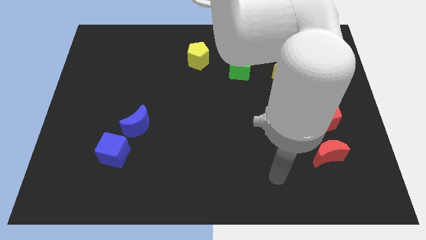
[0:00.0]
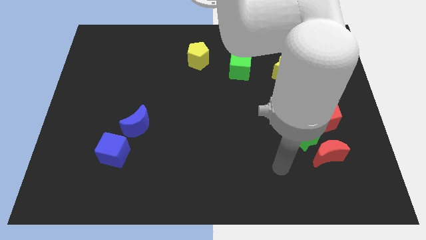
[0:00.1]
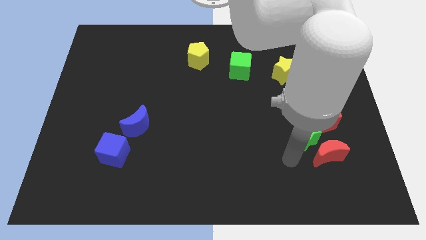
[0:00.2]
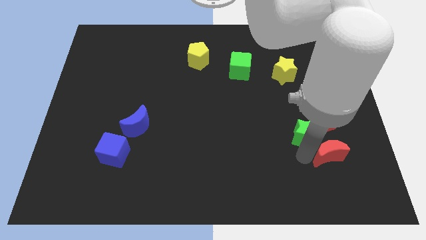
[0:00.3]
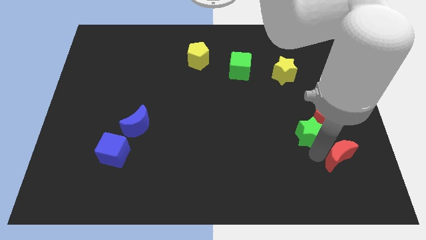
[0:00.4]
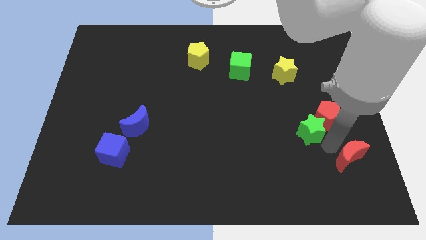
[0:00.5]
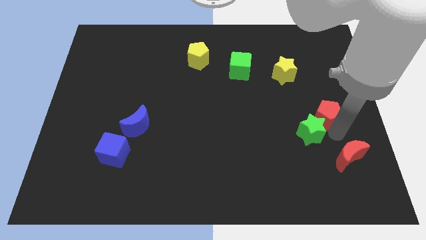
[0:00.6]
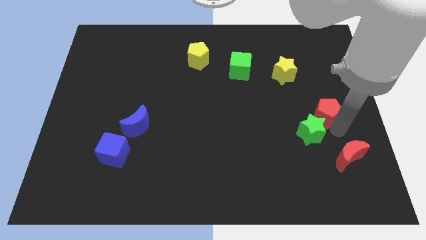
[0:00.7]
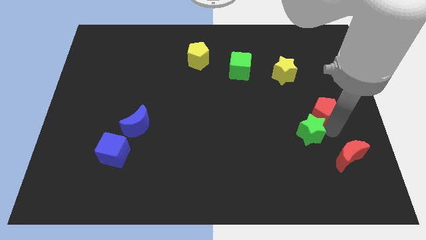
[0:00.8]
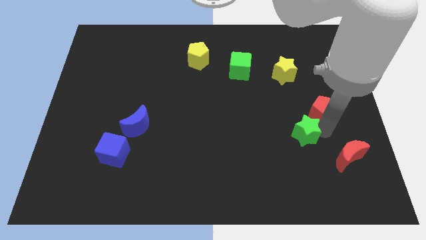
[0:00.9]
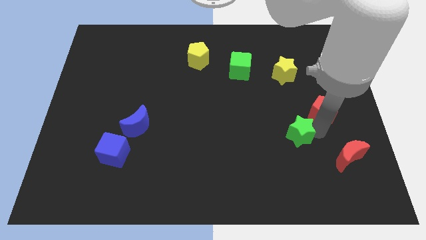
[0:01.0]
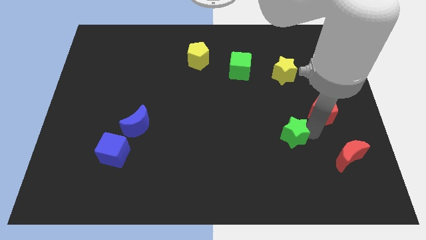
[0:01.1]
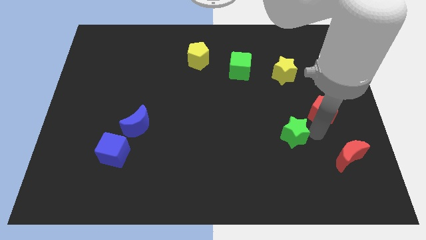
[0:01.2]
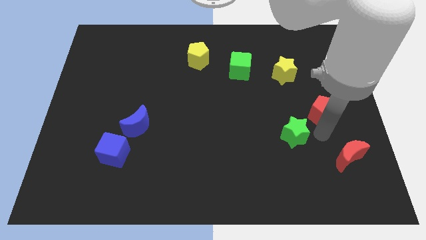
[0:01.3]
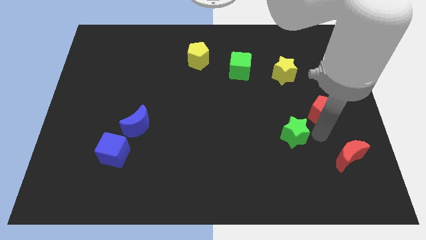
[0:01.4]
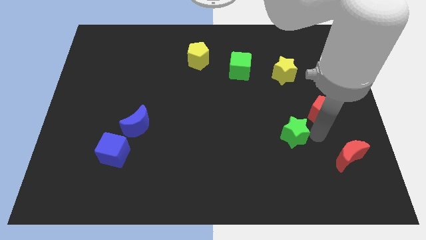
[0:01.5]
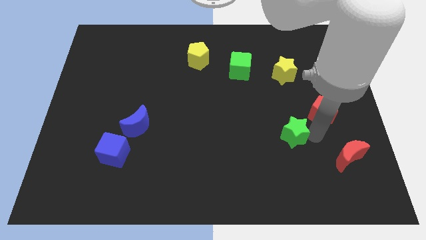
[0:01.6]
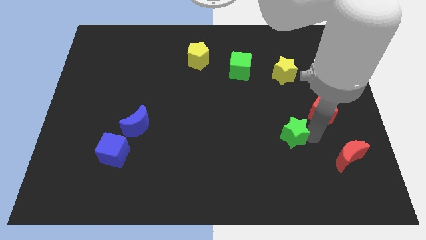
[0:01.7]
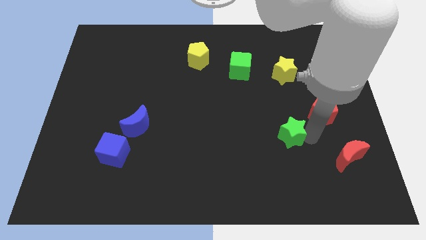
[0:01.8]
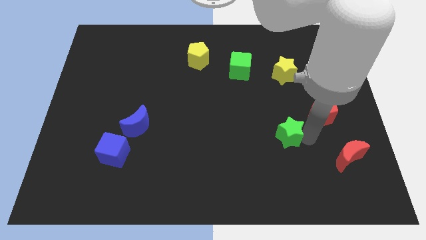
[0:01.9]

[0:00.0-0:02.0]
move the green star away from the red moon and red pentagon

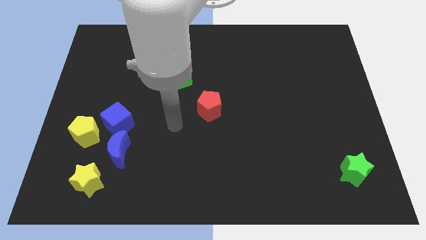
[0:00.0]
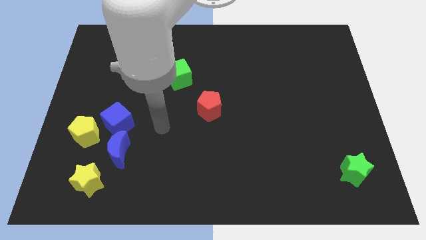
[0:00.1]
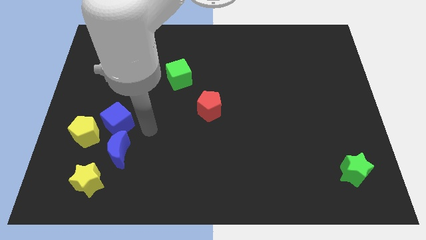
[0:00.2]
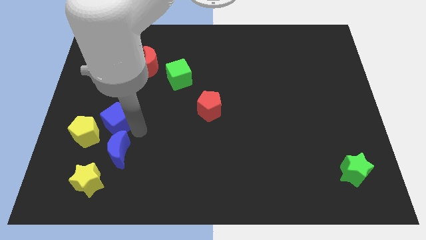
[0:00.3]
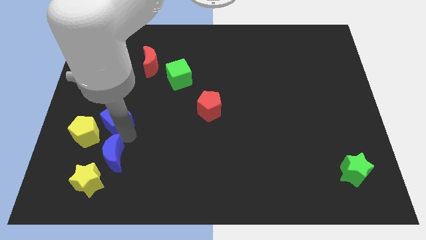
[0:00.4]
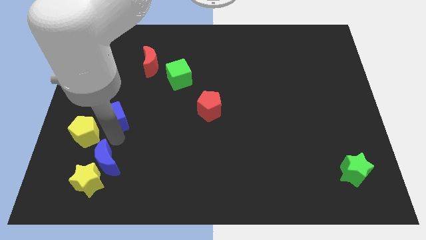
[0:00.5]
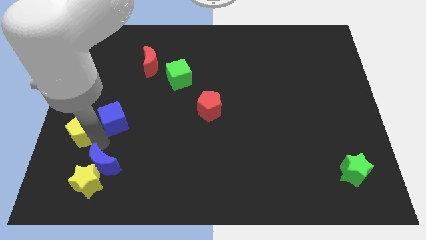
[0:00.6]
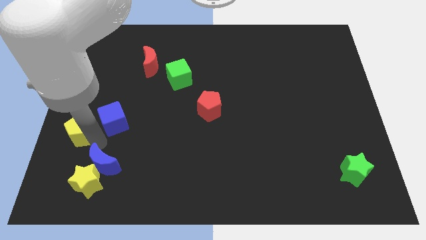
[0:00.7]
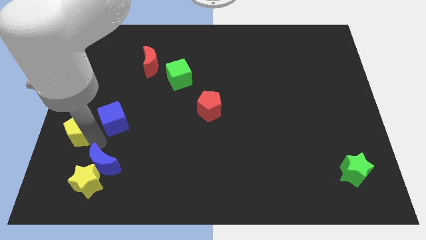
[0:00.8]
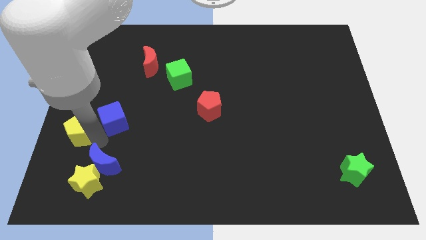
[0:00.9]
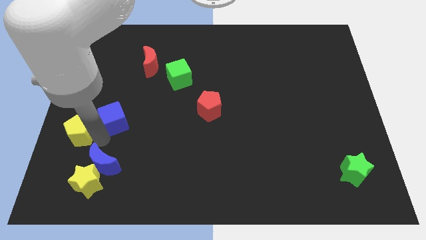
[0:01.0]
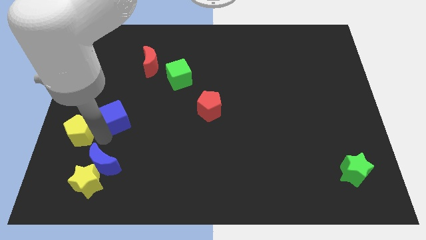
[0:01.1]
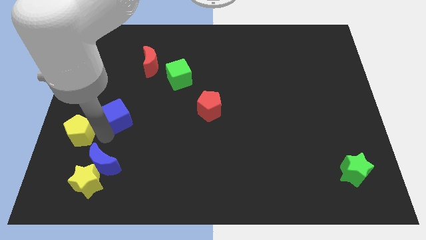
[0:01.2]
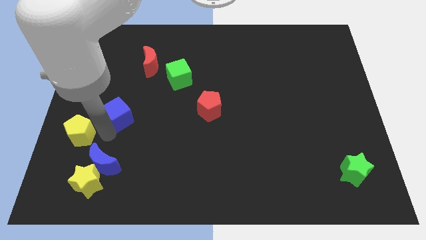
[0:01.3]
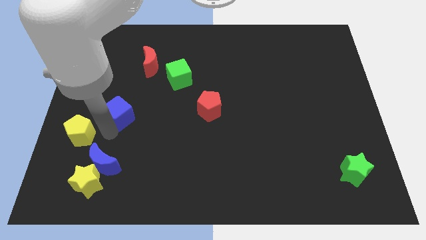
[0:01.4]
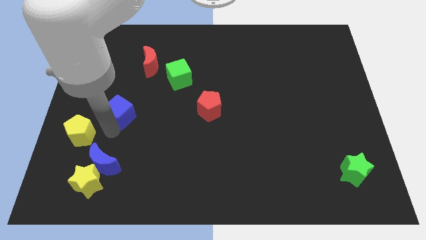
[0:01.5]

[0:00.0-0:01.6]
separate the blue cube from the yellow pentagon and blue moon

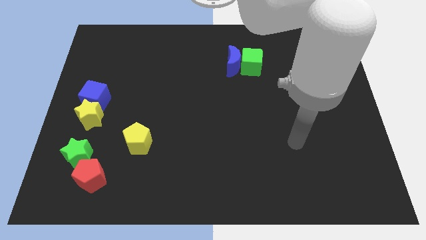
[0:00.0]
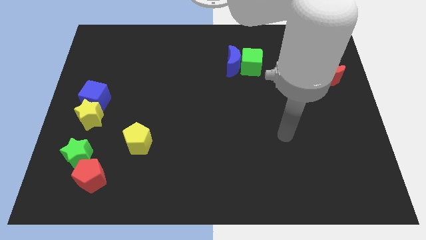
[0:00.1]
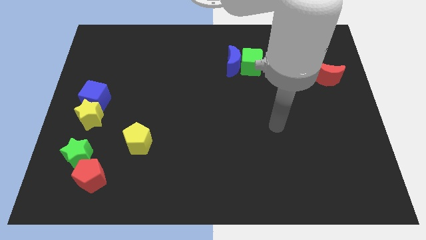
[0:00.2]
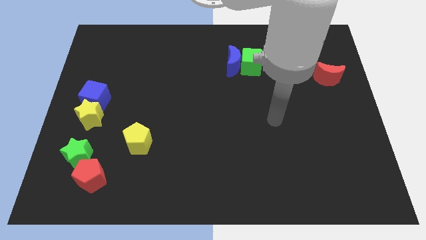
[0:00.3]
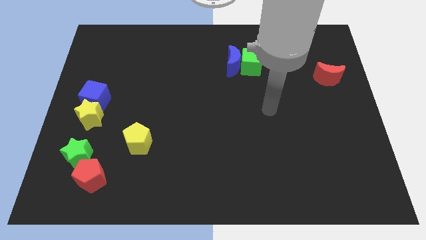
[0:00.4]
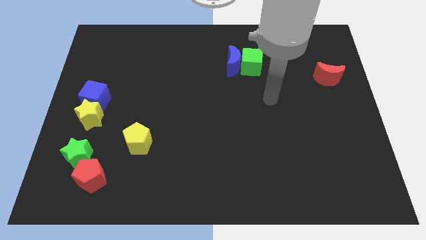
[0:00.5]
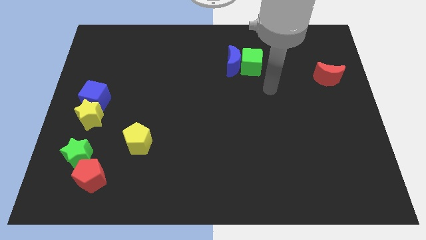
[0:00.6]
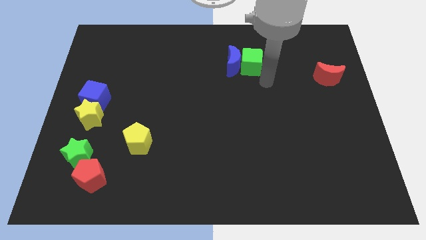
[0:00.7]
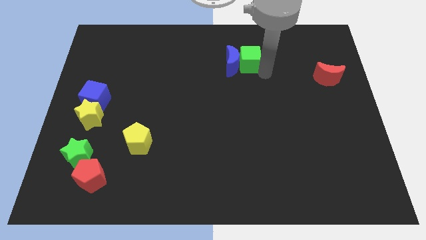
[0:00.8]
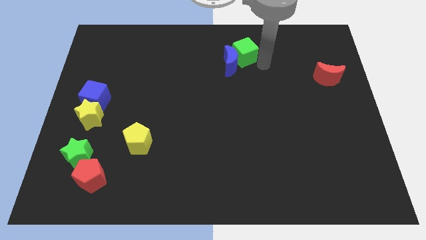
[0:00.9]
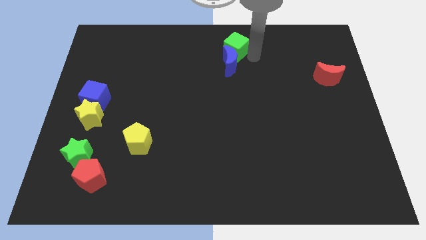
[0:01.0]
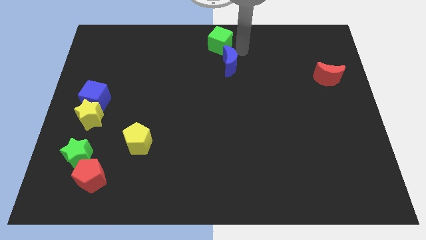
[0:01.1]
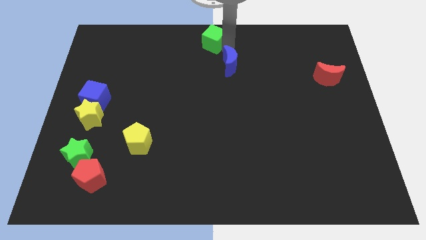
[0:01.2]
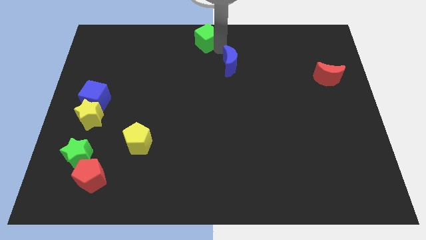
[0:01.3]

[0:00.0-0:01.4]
pull the blue moon apart from the green cube

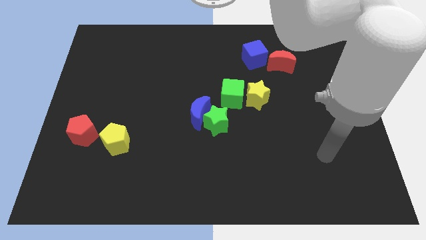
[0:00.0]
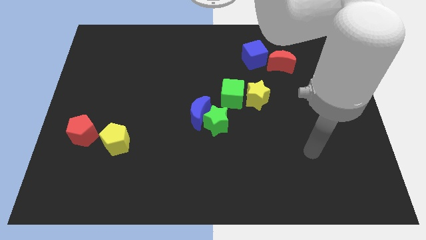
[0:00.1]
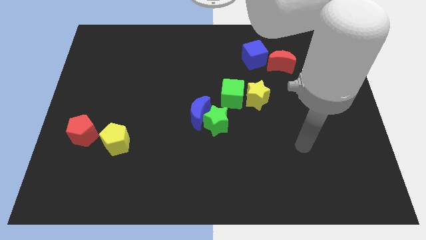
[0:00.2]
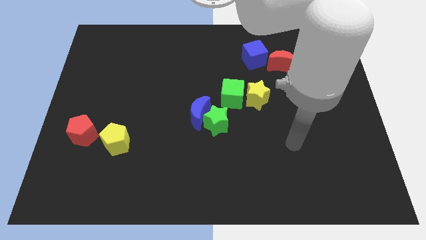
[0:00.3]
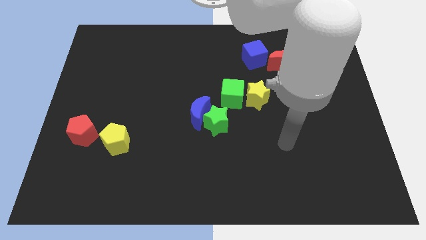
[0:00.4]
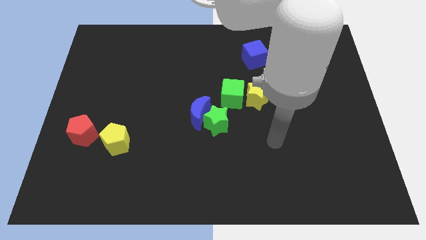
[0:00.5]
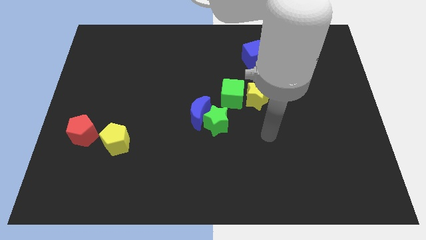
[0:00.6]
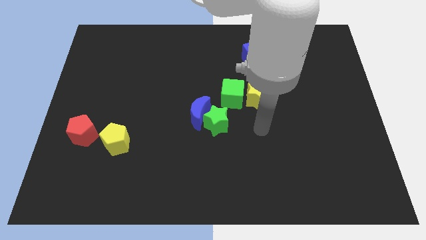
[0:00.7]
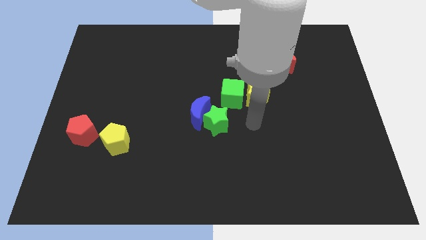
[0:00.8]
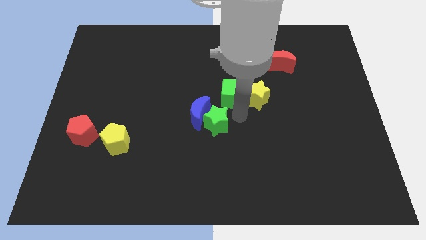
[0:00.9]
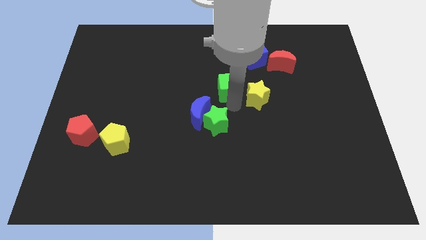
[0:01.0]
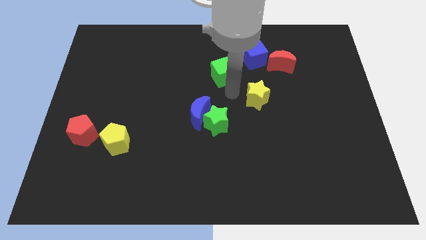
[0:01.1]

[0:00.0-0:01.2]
pull the yellow star apart from the green cube

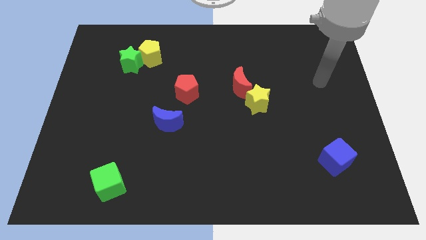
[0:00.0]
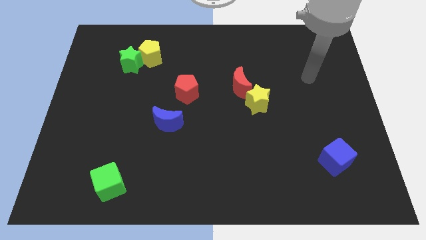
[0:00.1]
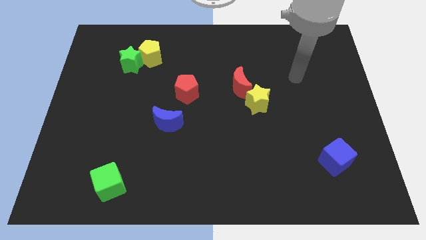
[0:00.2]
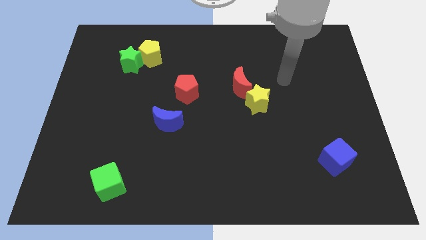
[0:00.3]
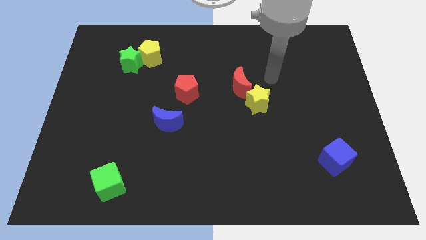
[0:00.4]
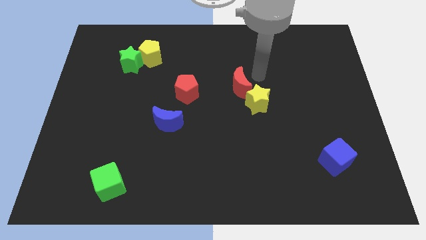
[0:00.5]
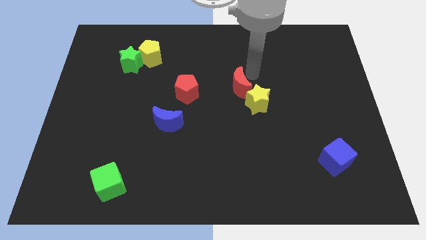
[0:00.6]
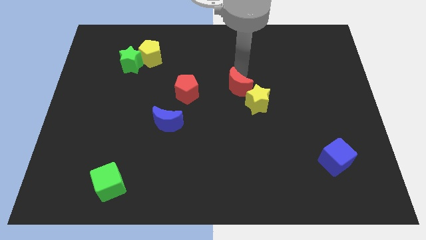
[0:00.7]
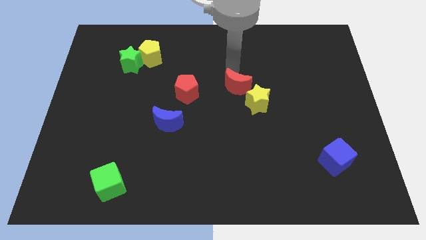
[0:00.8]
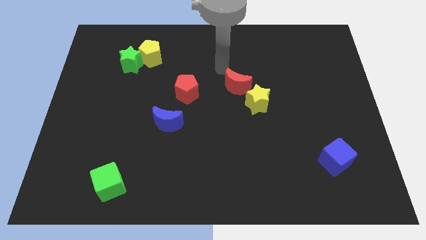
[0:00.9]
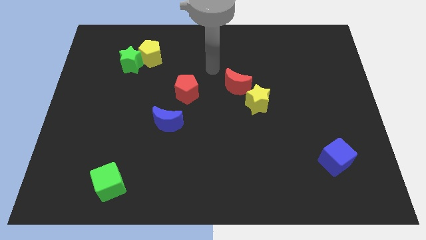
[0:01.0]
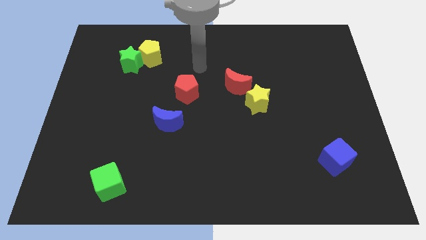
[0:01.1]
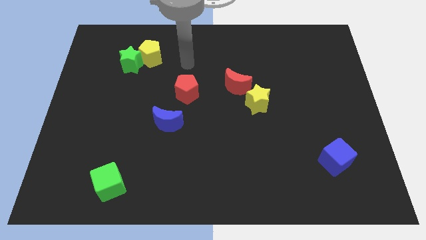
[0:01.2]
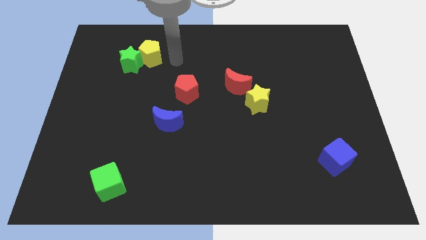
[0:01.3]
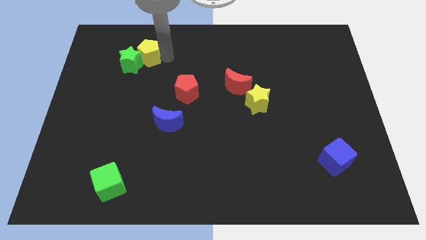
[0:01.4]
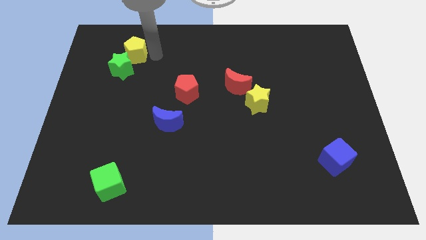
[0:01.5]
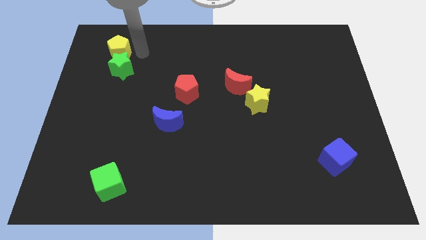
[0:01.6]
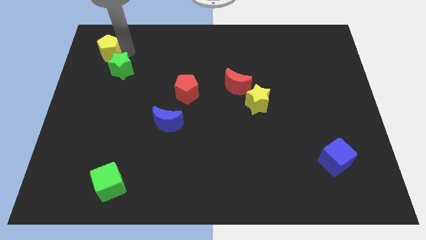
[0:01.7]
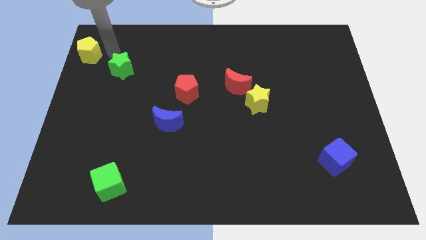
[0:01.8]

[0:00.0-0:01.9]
move the green star away from the yellow pentagon

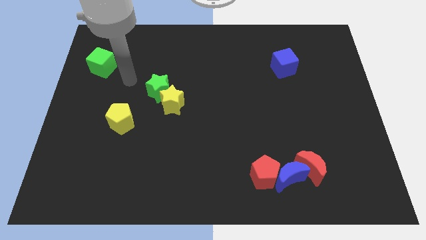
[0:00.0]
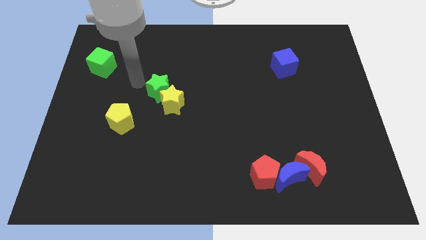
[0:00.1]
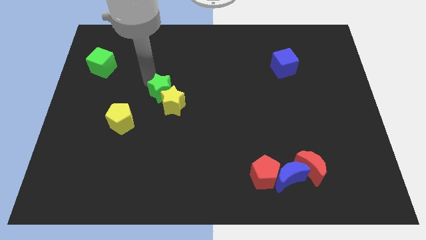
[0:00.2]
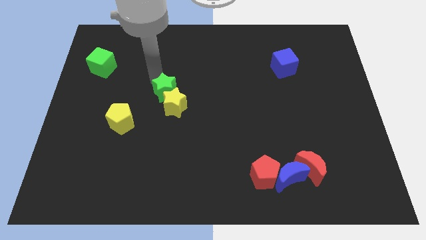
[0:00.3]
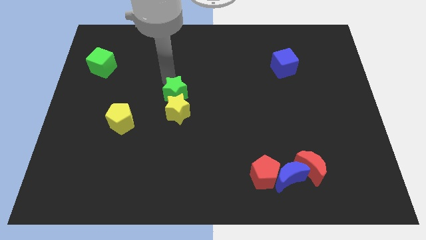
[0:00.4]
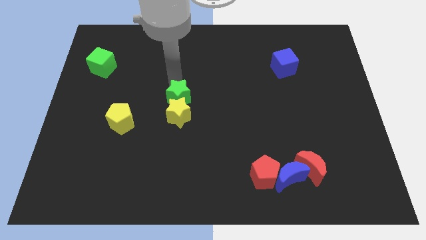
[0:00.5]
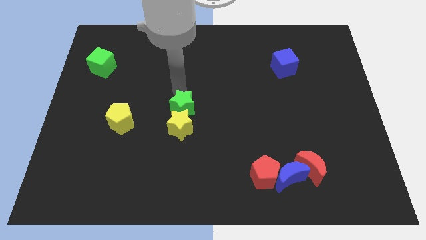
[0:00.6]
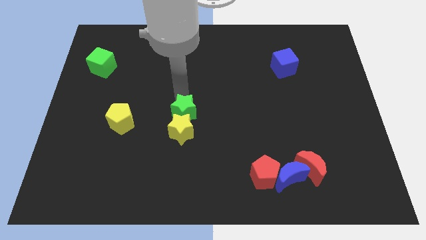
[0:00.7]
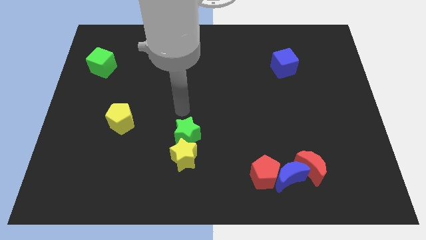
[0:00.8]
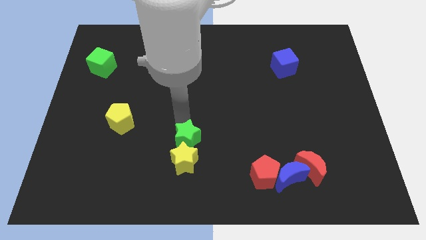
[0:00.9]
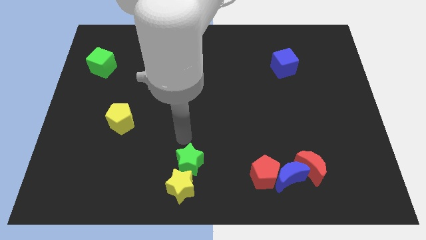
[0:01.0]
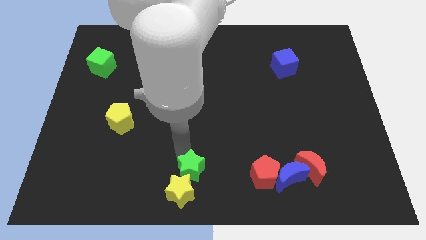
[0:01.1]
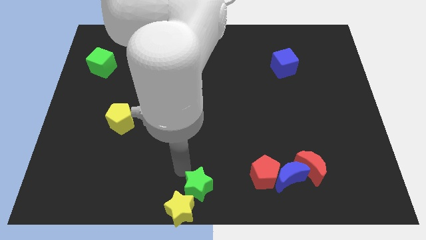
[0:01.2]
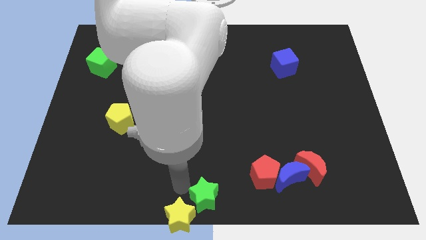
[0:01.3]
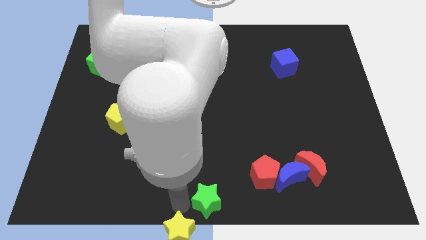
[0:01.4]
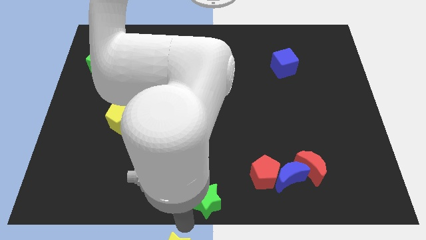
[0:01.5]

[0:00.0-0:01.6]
separate the green star from the yellow star
